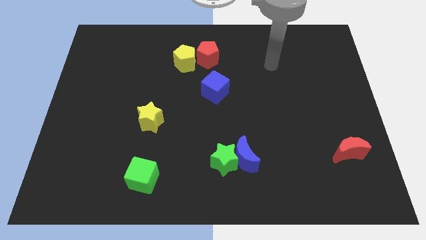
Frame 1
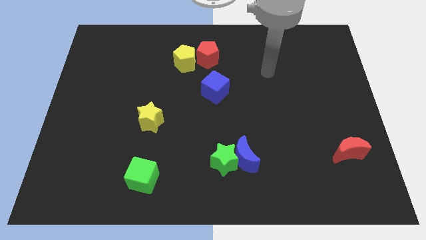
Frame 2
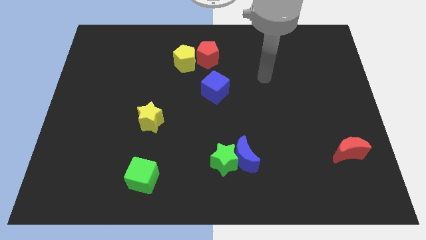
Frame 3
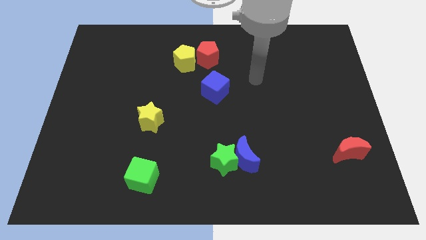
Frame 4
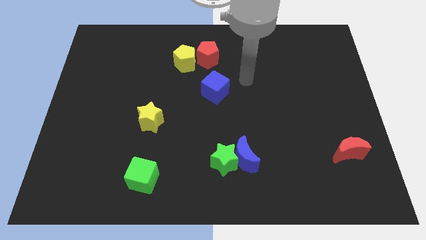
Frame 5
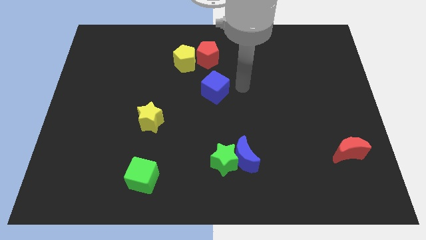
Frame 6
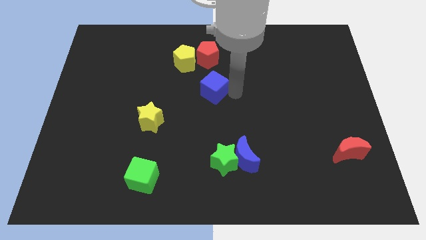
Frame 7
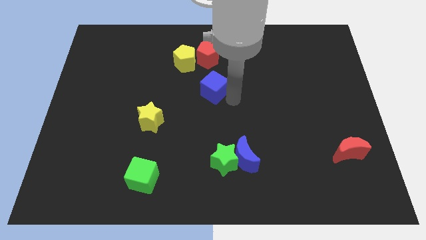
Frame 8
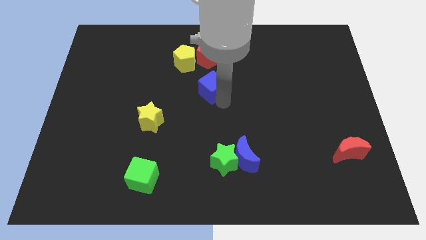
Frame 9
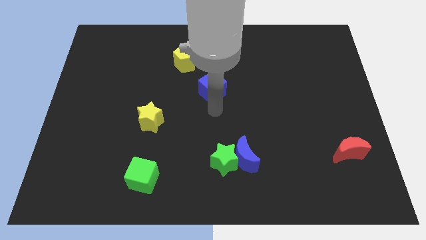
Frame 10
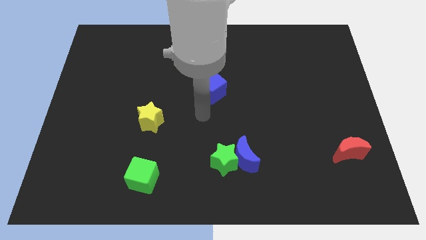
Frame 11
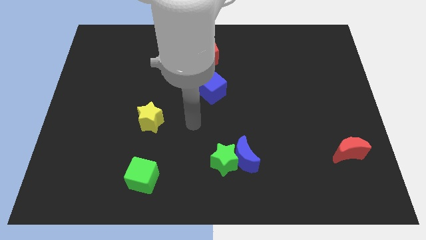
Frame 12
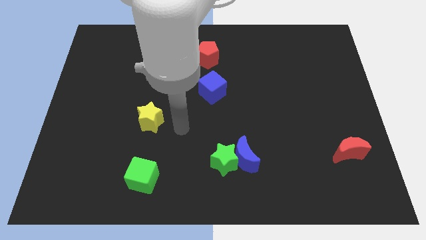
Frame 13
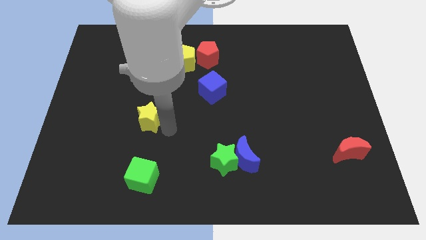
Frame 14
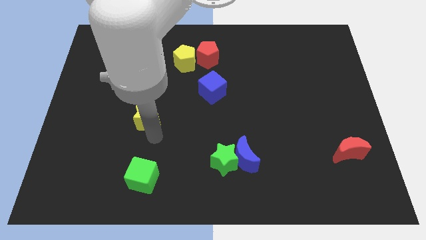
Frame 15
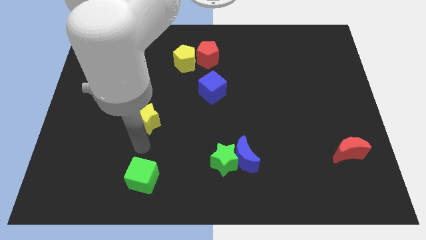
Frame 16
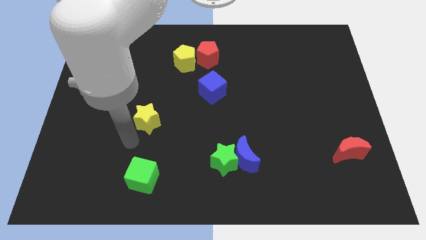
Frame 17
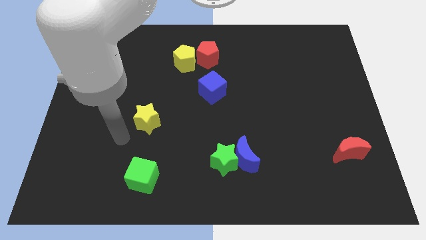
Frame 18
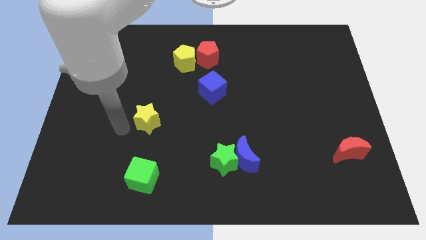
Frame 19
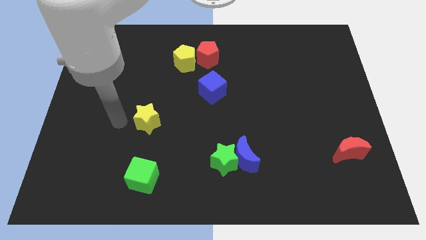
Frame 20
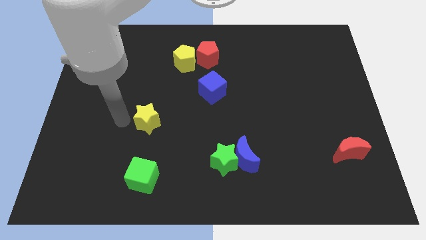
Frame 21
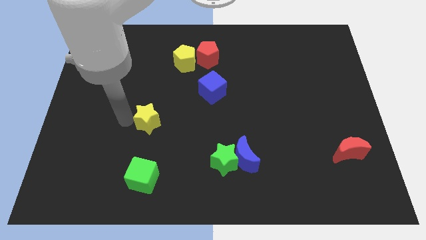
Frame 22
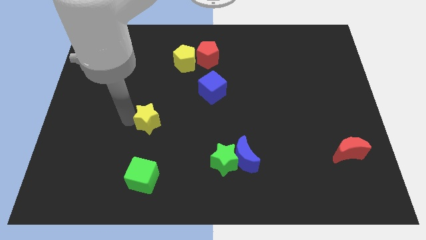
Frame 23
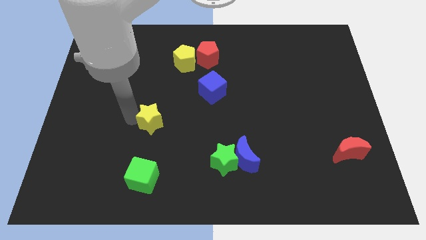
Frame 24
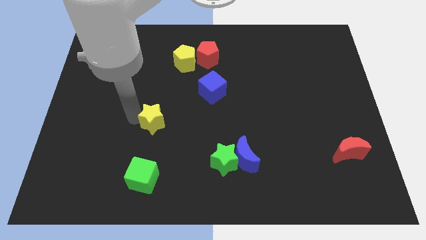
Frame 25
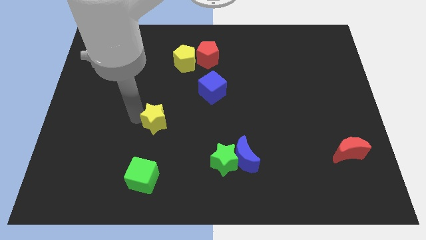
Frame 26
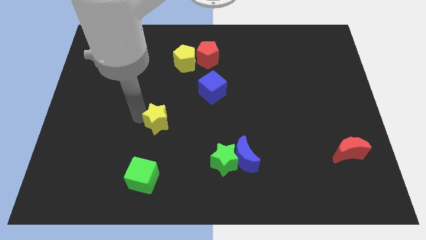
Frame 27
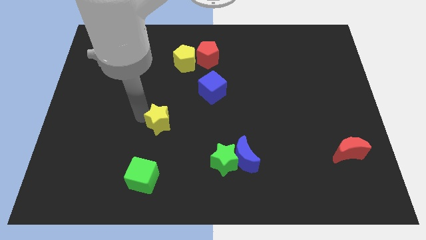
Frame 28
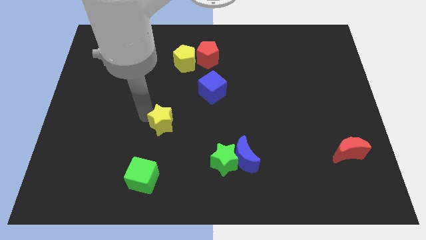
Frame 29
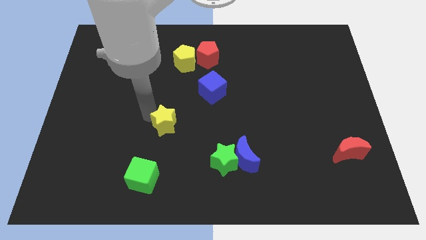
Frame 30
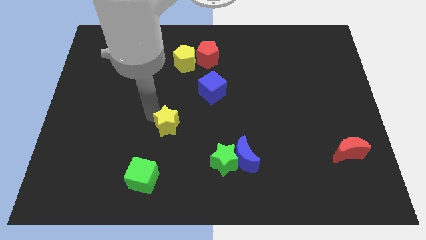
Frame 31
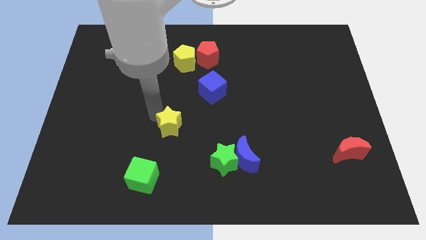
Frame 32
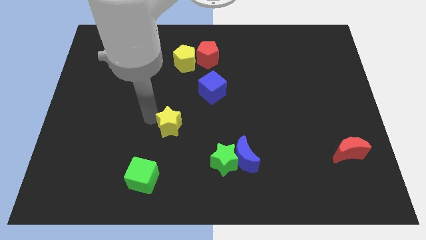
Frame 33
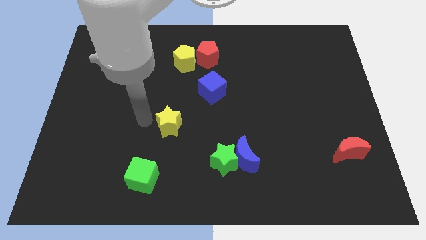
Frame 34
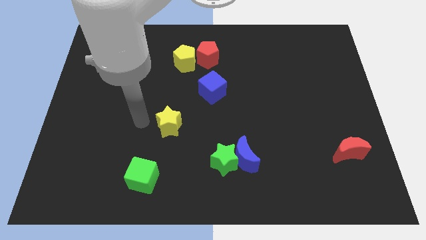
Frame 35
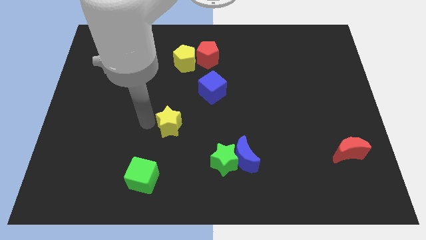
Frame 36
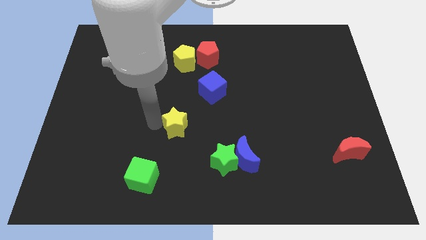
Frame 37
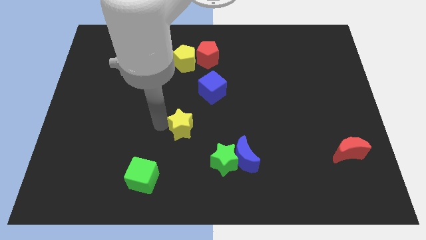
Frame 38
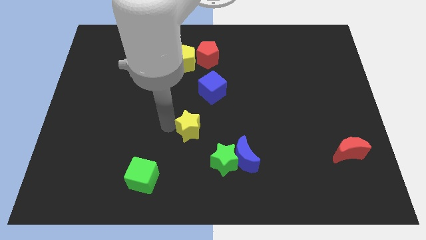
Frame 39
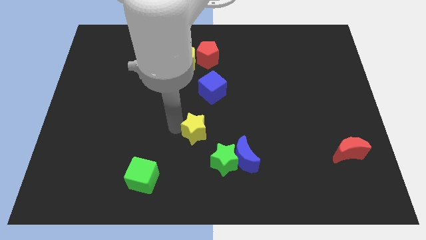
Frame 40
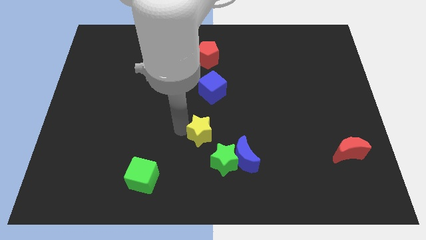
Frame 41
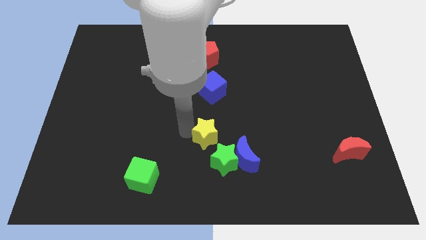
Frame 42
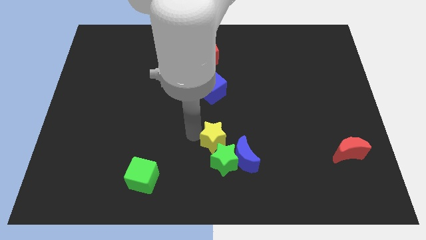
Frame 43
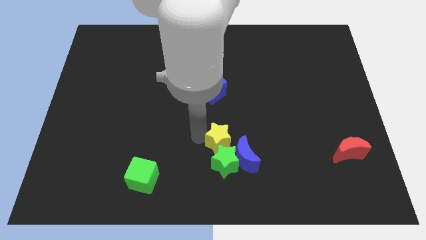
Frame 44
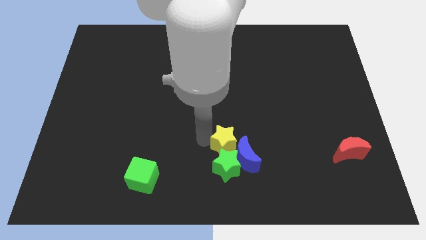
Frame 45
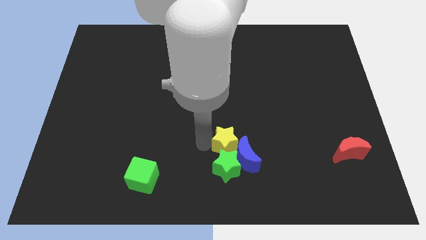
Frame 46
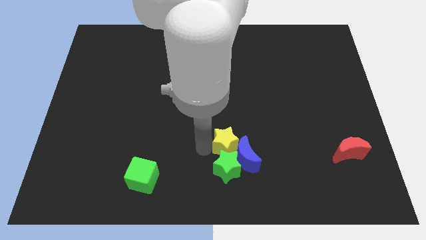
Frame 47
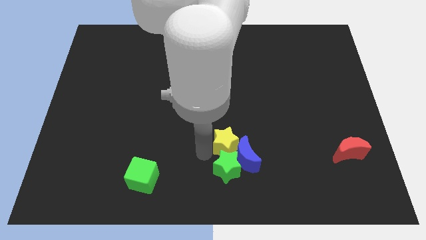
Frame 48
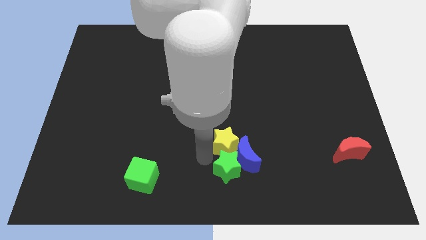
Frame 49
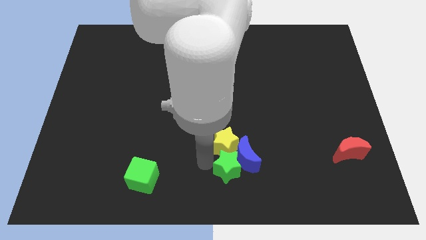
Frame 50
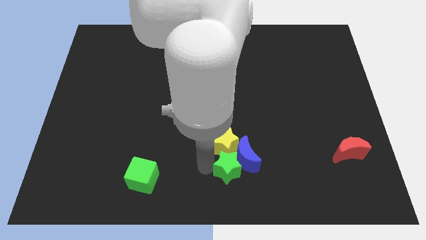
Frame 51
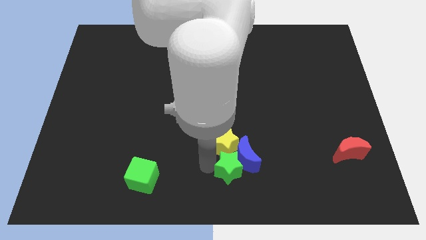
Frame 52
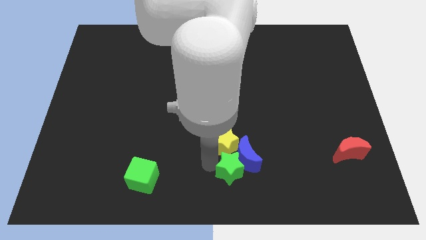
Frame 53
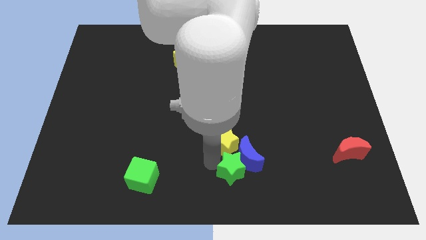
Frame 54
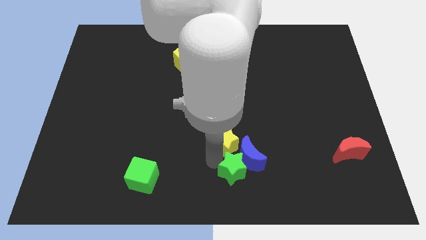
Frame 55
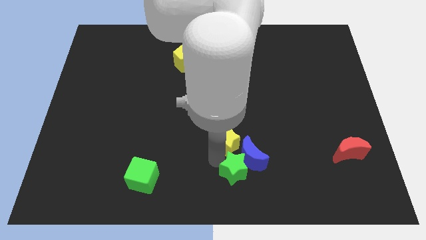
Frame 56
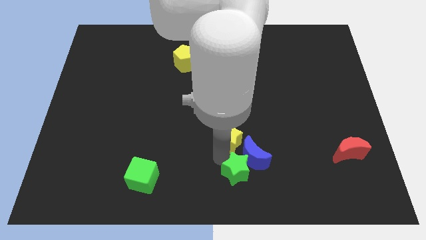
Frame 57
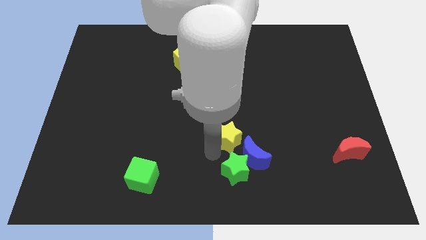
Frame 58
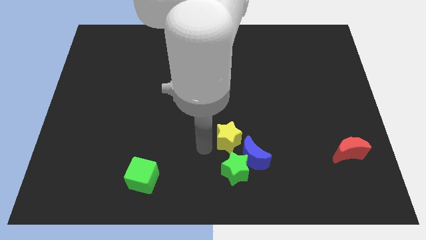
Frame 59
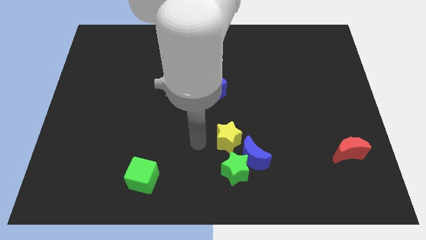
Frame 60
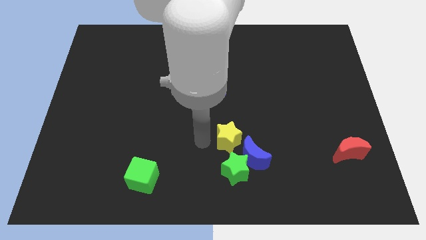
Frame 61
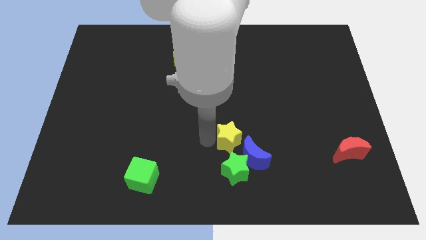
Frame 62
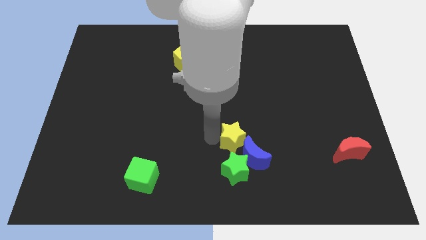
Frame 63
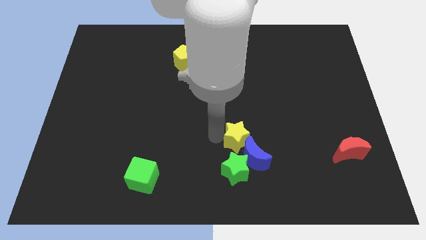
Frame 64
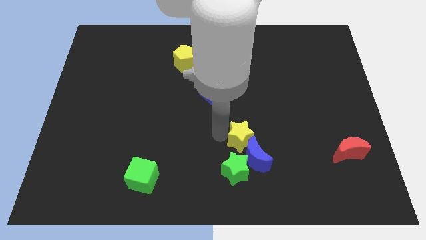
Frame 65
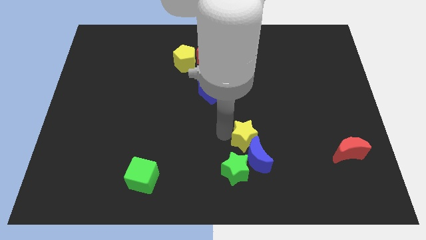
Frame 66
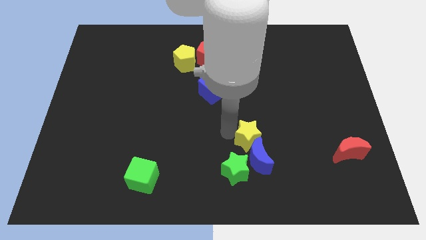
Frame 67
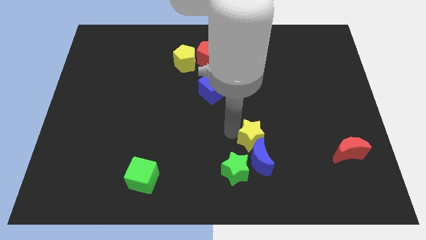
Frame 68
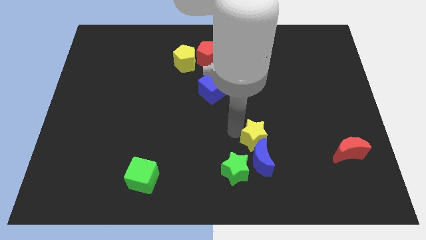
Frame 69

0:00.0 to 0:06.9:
slide the yellow star diagonally up and to the right of the blue moon
